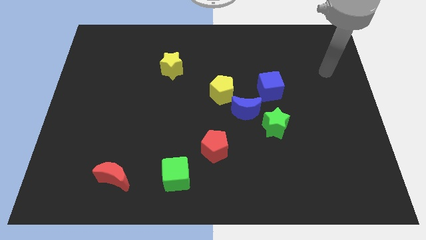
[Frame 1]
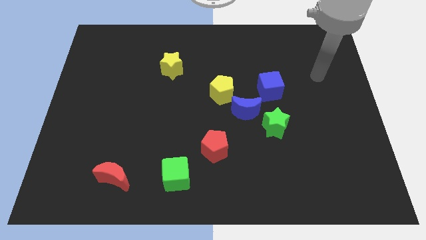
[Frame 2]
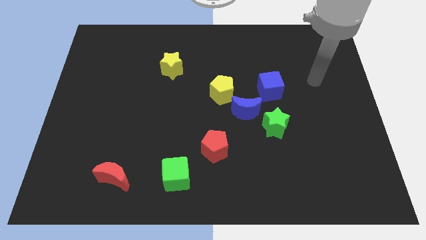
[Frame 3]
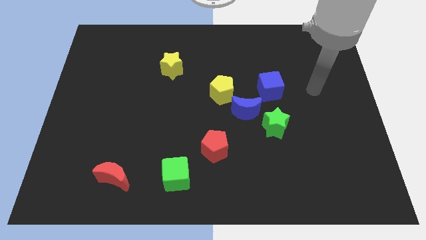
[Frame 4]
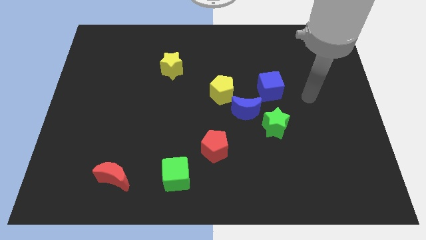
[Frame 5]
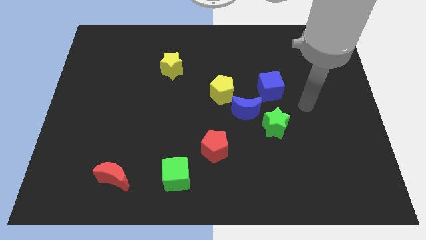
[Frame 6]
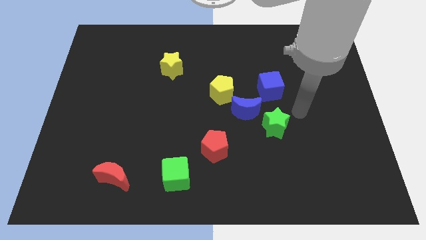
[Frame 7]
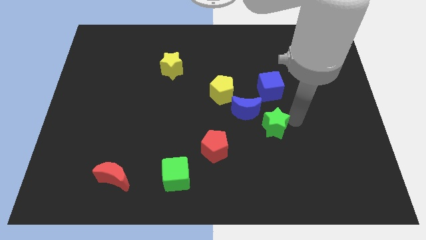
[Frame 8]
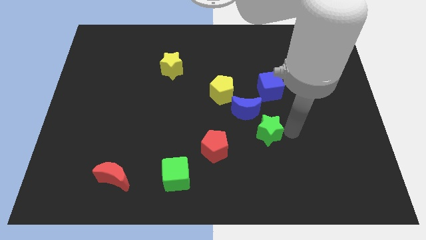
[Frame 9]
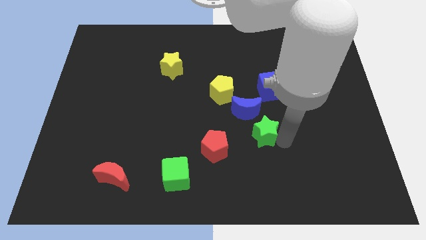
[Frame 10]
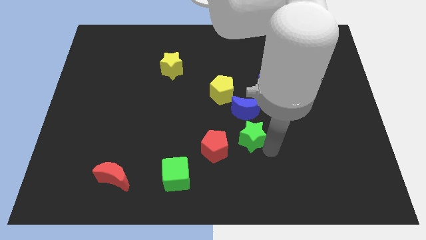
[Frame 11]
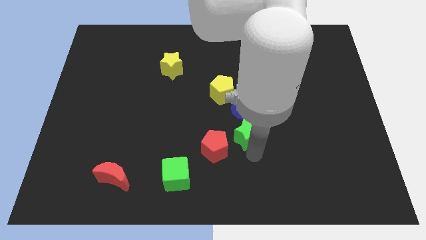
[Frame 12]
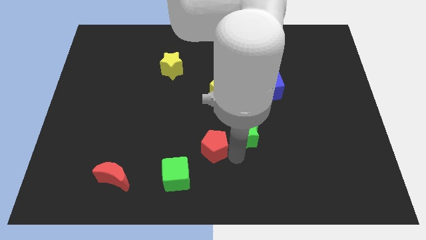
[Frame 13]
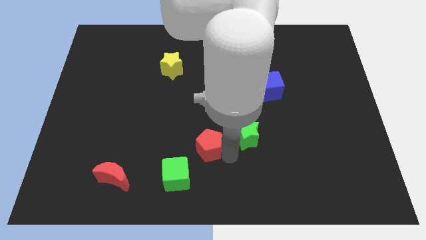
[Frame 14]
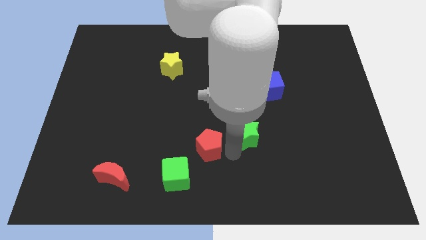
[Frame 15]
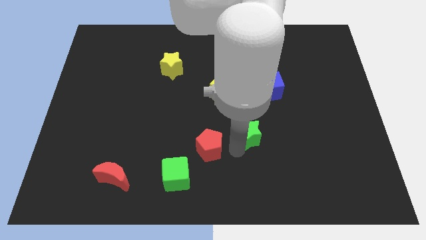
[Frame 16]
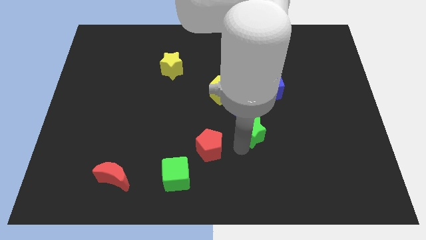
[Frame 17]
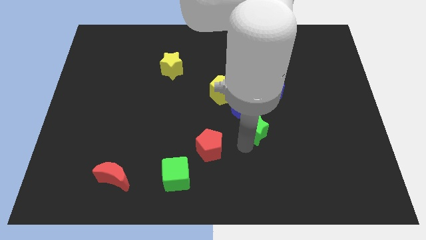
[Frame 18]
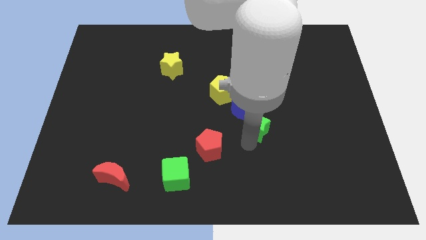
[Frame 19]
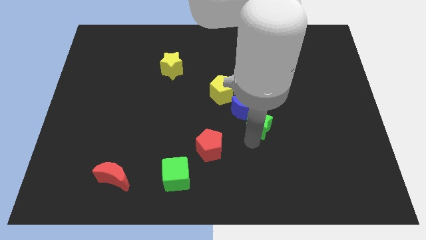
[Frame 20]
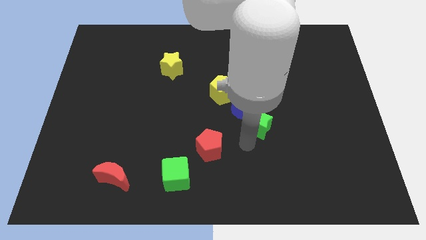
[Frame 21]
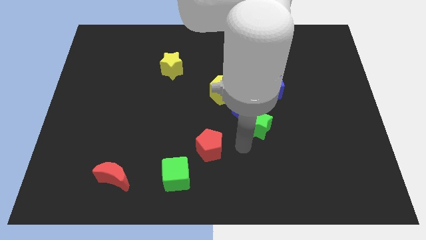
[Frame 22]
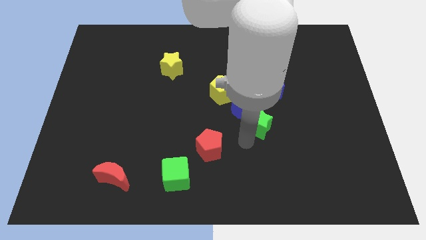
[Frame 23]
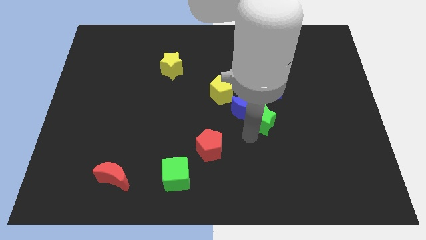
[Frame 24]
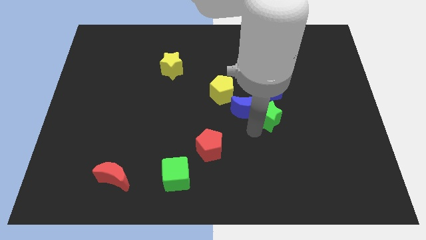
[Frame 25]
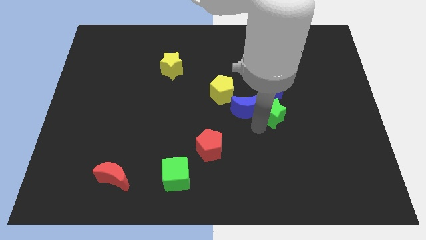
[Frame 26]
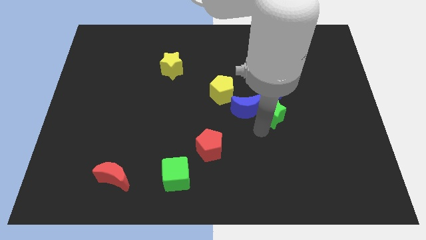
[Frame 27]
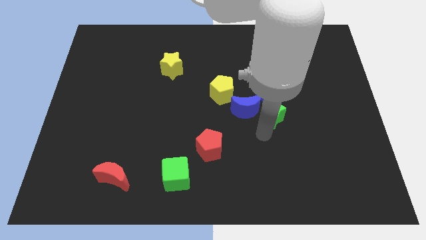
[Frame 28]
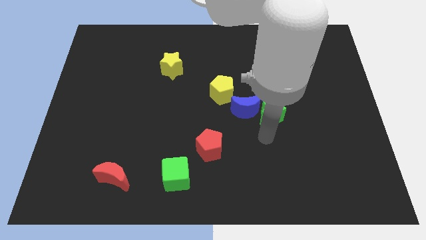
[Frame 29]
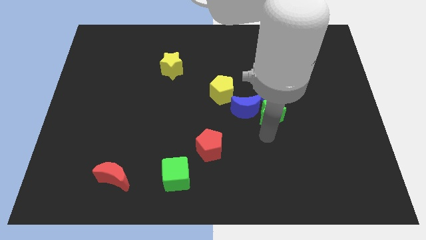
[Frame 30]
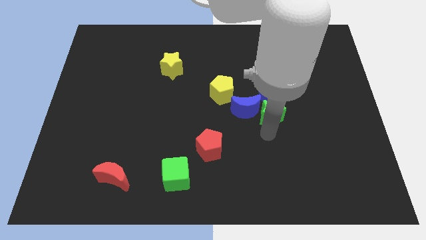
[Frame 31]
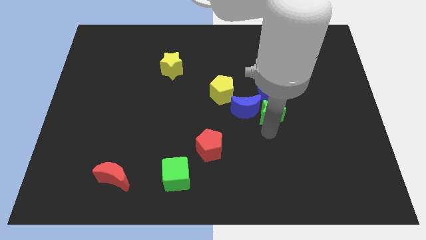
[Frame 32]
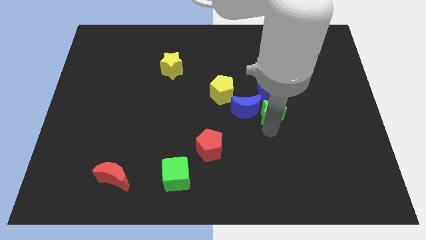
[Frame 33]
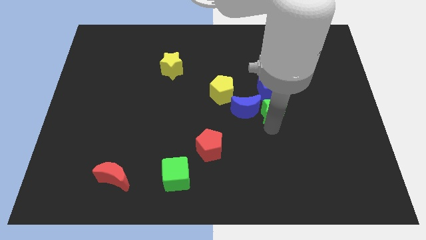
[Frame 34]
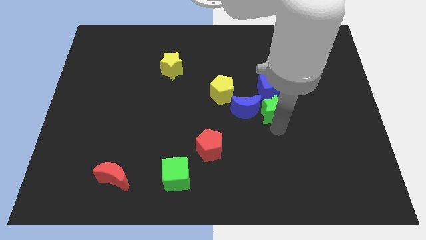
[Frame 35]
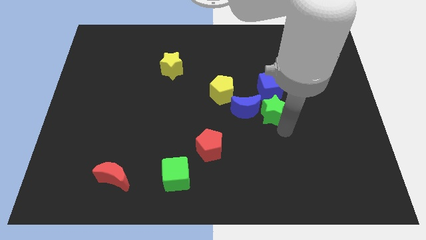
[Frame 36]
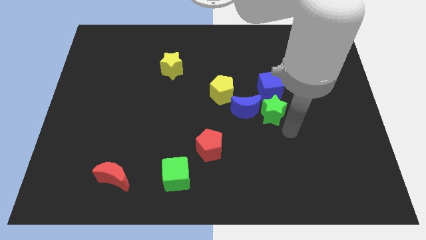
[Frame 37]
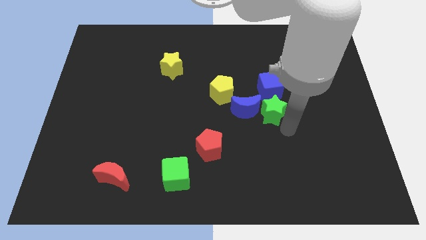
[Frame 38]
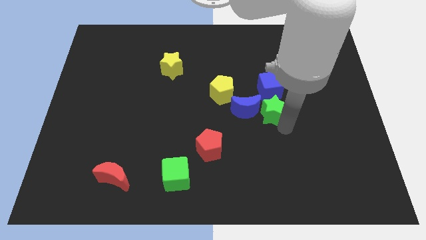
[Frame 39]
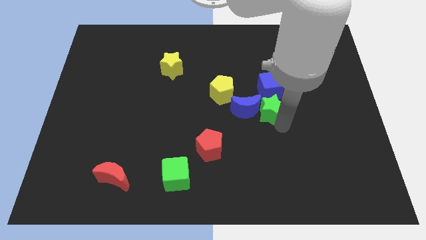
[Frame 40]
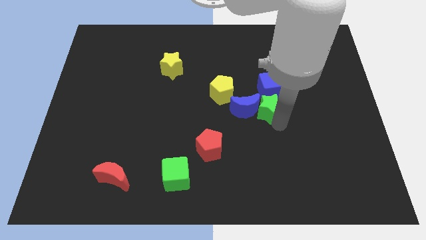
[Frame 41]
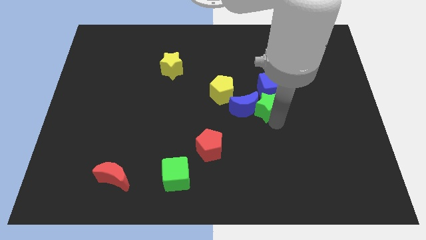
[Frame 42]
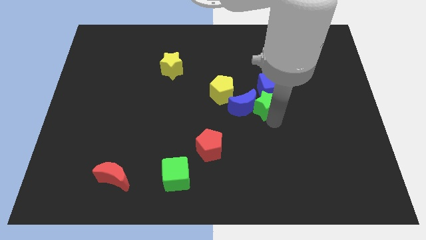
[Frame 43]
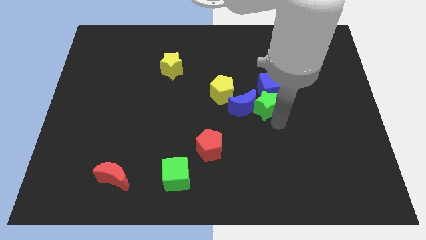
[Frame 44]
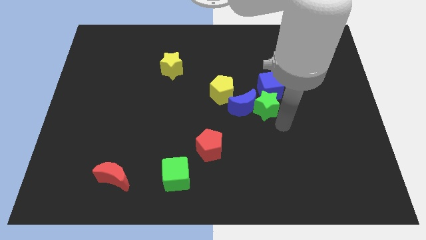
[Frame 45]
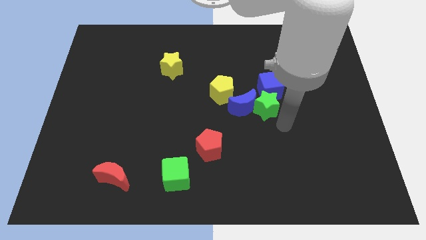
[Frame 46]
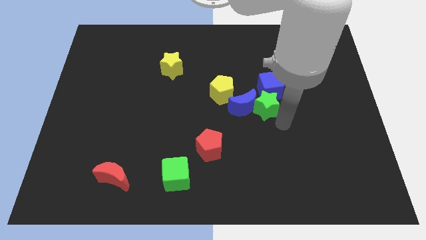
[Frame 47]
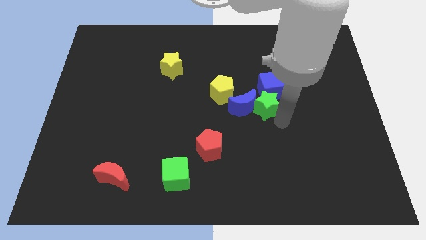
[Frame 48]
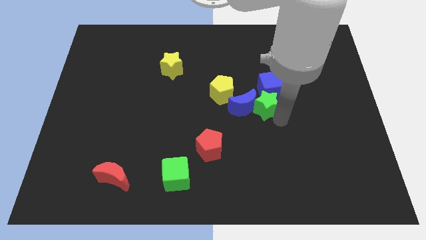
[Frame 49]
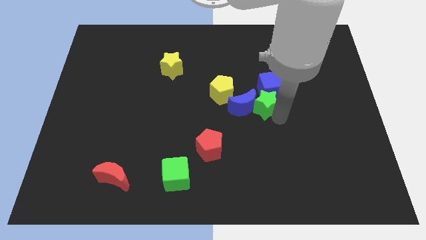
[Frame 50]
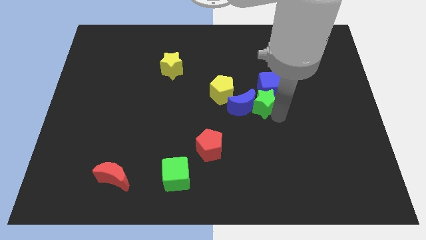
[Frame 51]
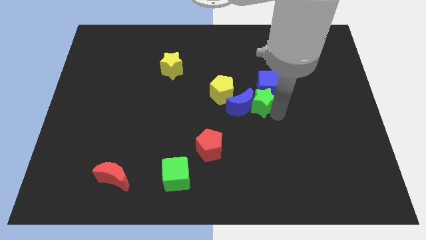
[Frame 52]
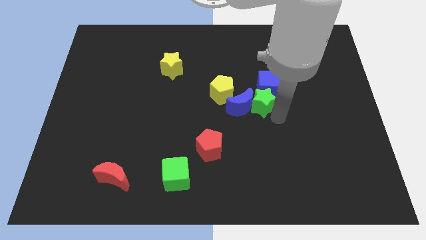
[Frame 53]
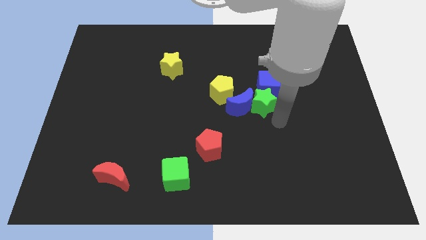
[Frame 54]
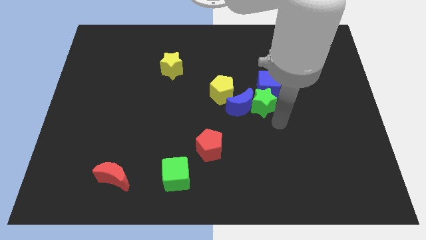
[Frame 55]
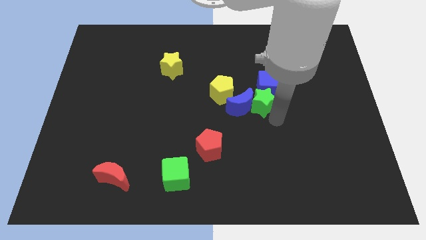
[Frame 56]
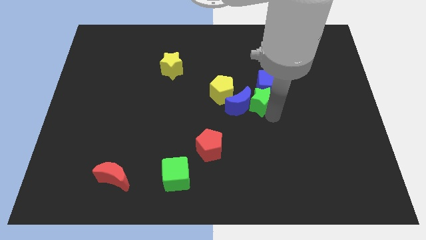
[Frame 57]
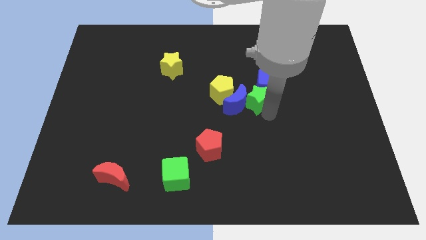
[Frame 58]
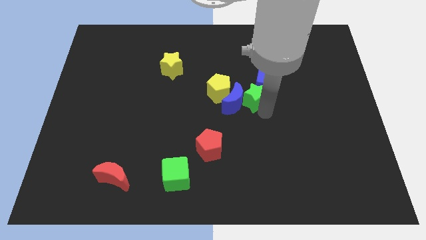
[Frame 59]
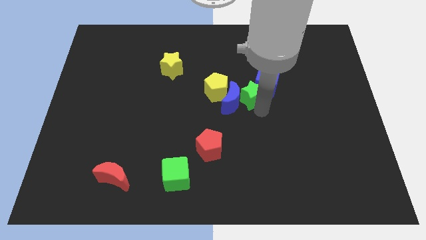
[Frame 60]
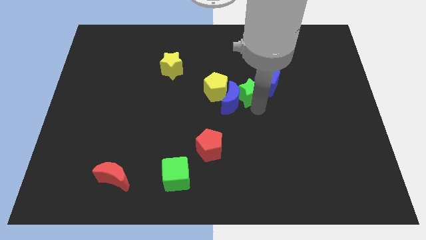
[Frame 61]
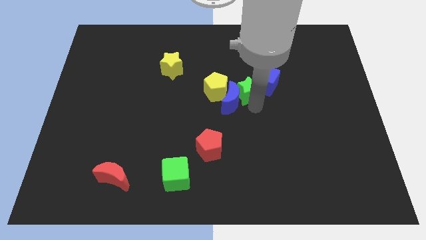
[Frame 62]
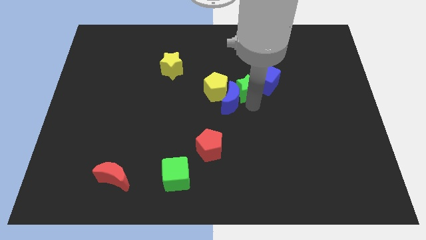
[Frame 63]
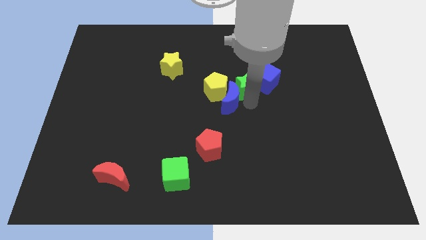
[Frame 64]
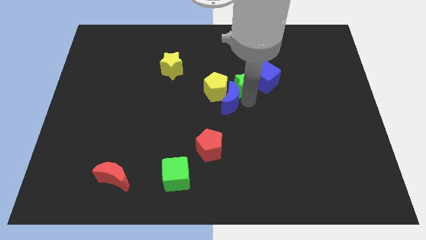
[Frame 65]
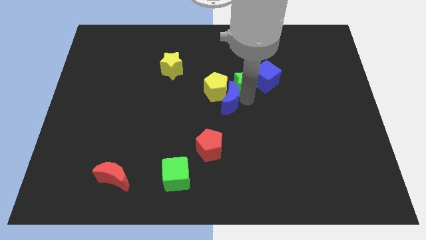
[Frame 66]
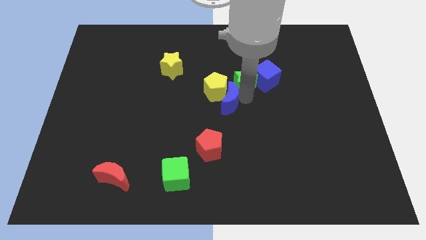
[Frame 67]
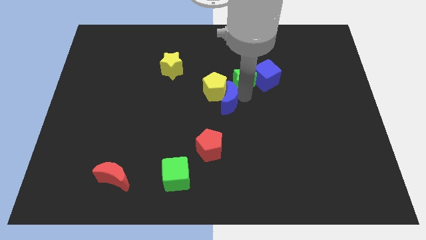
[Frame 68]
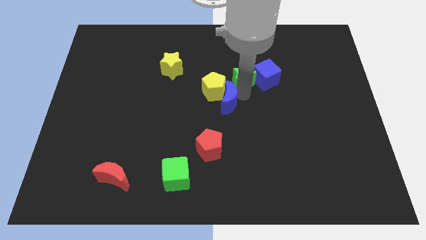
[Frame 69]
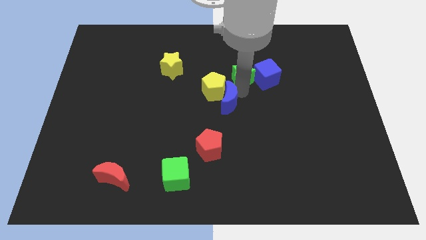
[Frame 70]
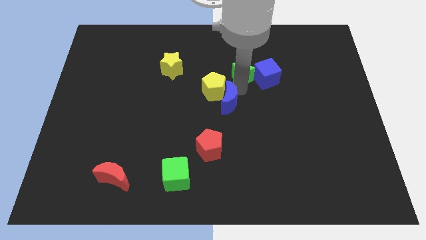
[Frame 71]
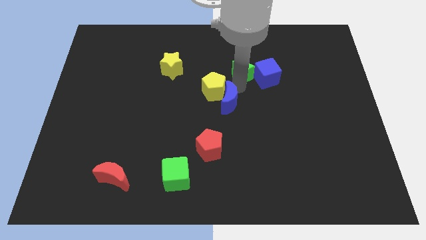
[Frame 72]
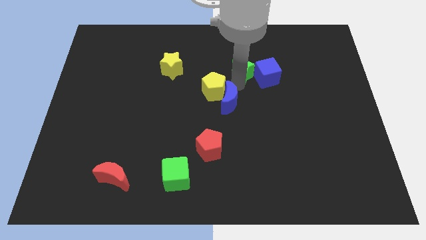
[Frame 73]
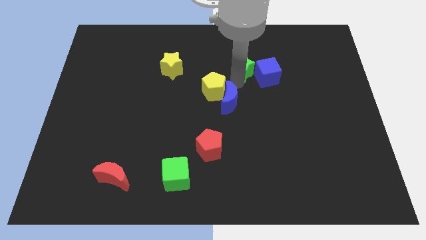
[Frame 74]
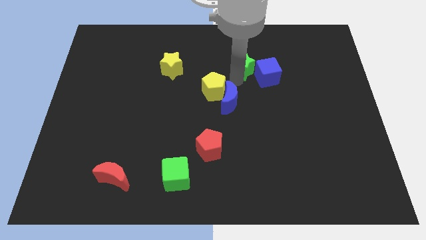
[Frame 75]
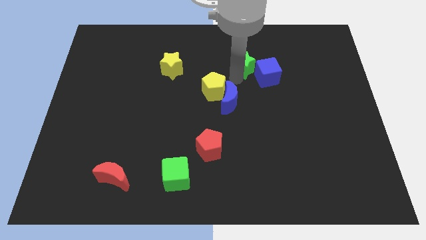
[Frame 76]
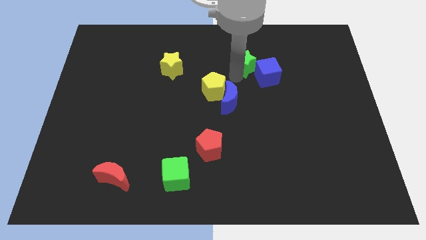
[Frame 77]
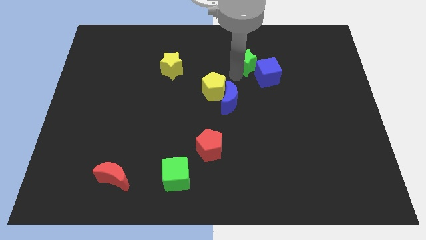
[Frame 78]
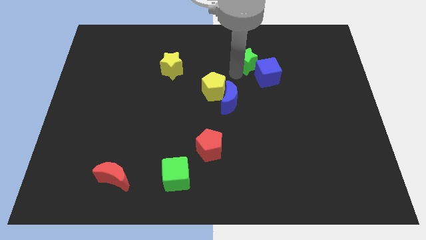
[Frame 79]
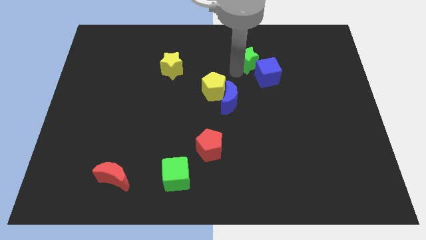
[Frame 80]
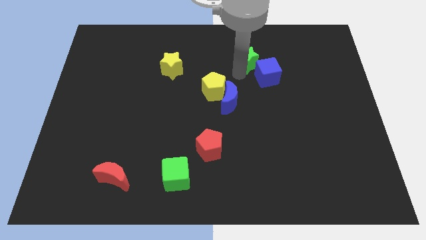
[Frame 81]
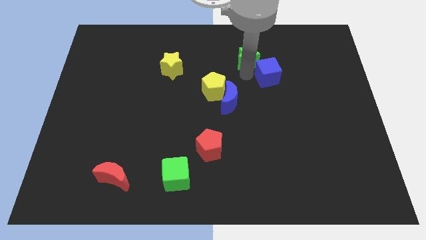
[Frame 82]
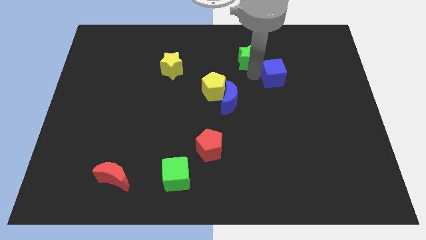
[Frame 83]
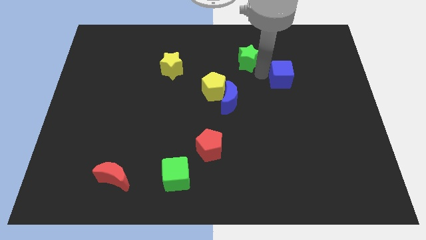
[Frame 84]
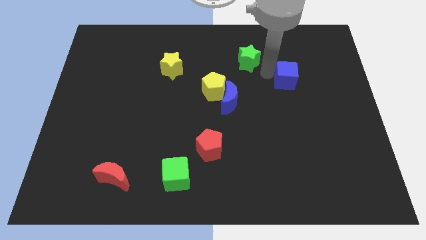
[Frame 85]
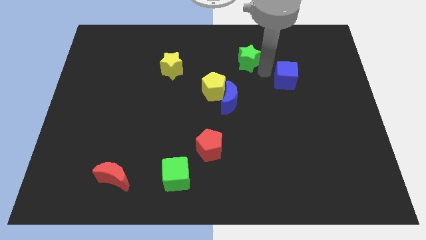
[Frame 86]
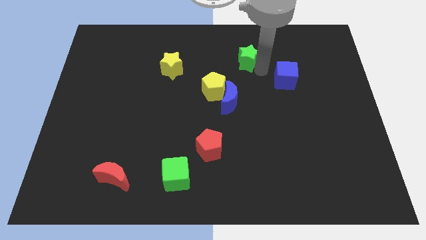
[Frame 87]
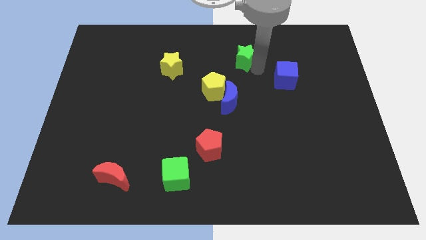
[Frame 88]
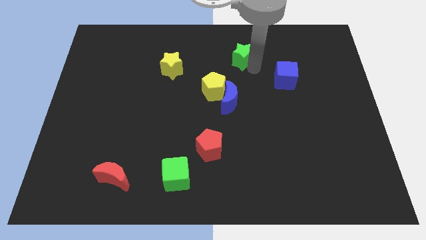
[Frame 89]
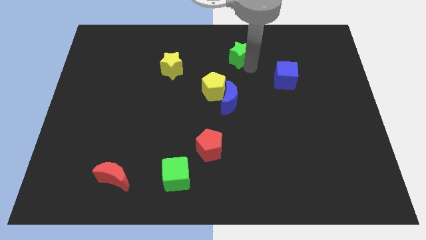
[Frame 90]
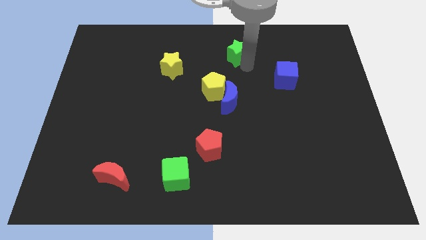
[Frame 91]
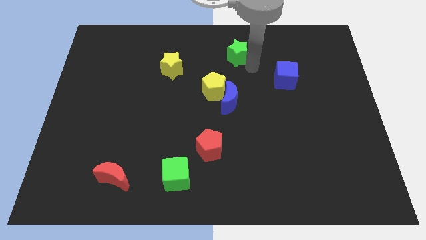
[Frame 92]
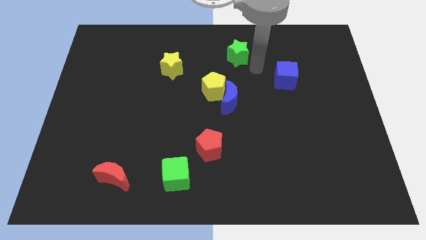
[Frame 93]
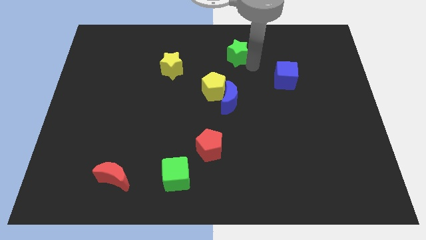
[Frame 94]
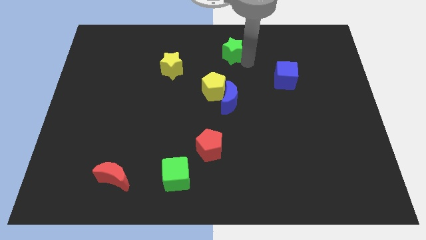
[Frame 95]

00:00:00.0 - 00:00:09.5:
put the green star to the top side
